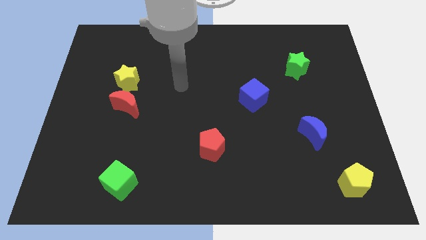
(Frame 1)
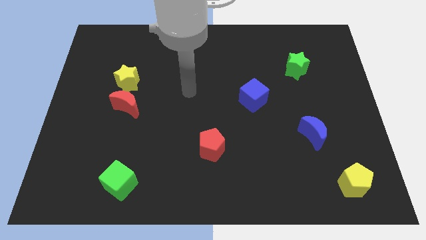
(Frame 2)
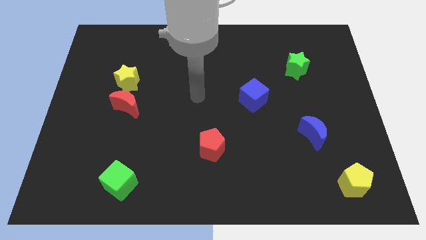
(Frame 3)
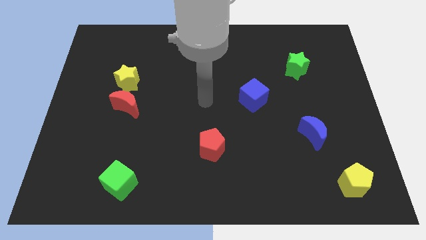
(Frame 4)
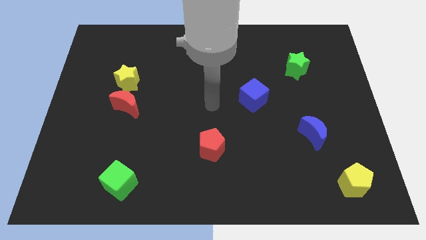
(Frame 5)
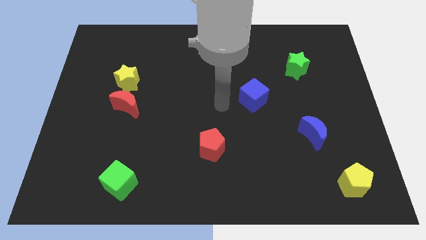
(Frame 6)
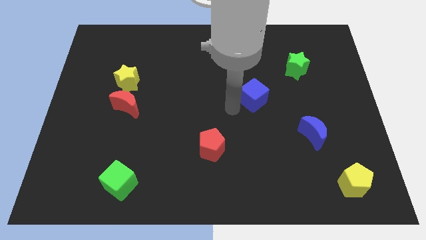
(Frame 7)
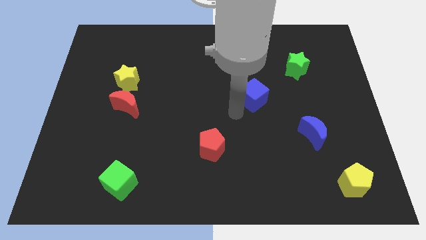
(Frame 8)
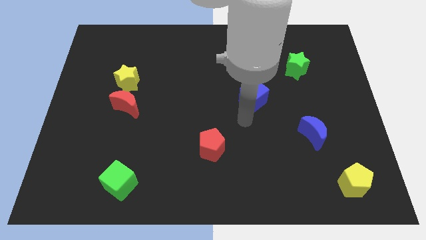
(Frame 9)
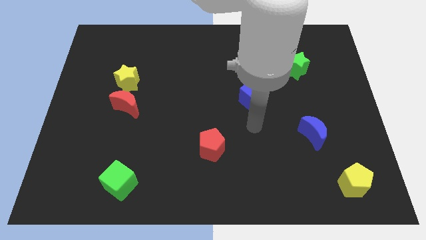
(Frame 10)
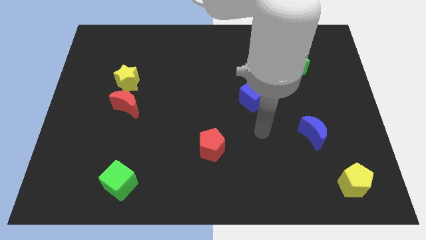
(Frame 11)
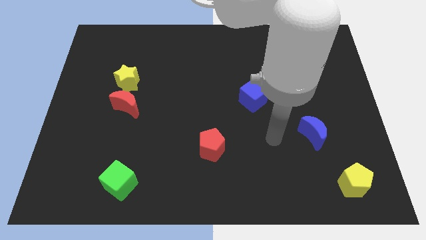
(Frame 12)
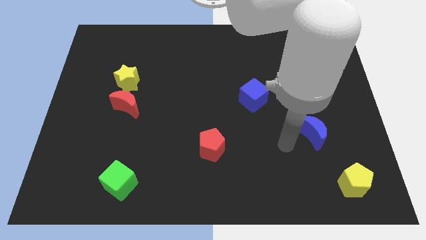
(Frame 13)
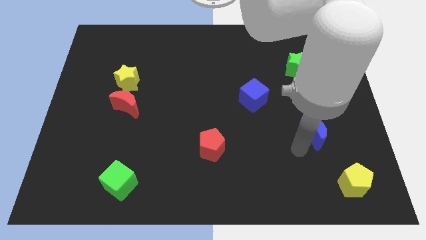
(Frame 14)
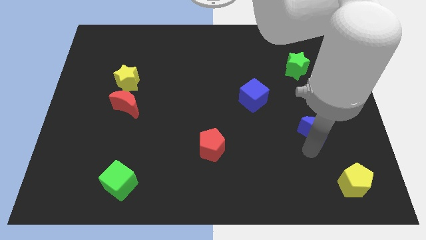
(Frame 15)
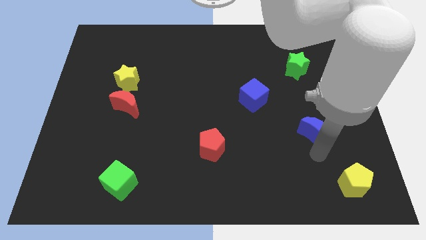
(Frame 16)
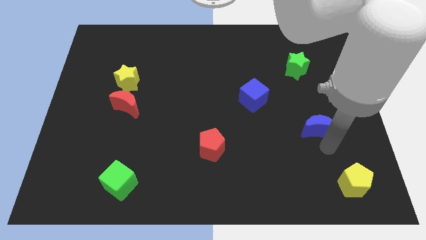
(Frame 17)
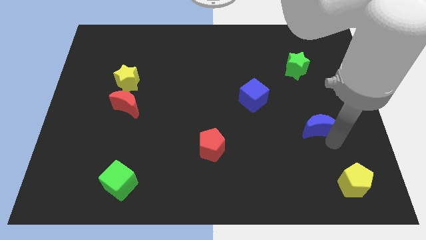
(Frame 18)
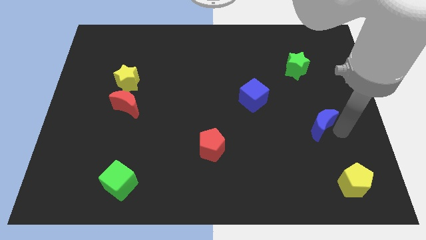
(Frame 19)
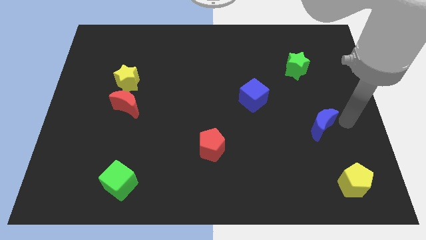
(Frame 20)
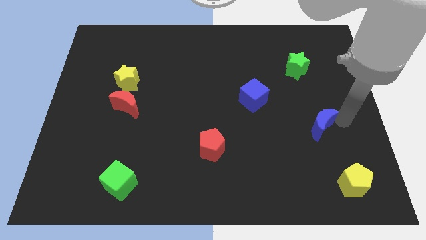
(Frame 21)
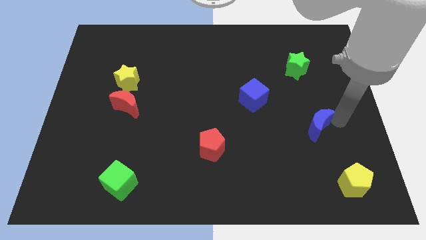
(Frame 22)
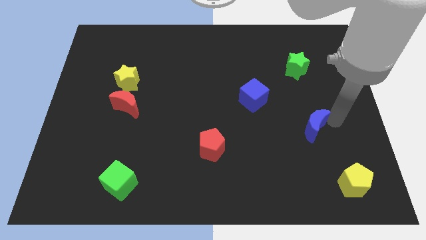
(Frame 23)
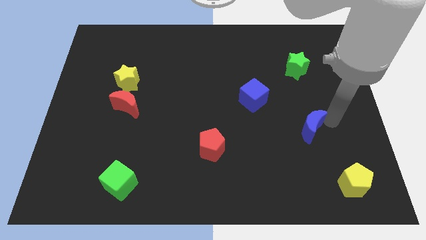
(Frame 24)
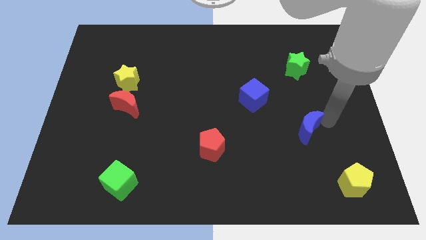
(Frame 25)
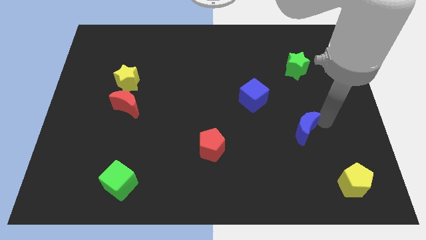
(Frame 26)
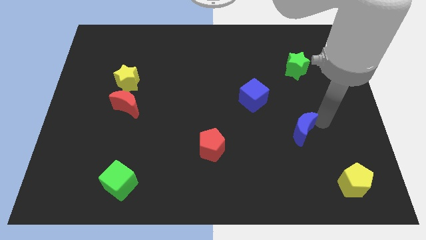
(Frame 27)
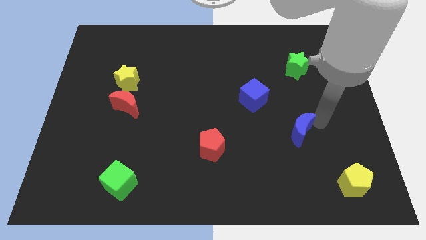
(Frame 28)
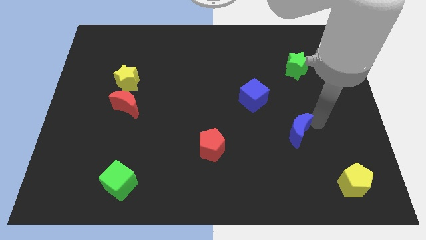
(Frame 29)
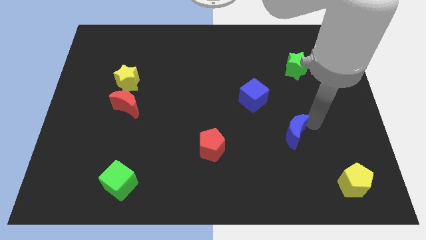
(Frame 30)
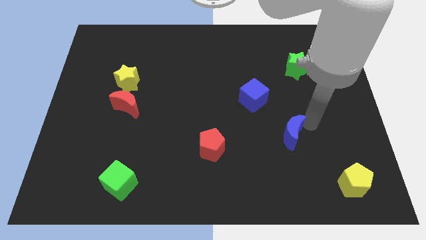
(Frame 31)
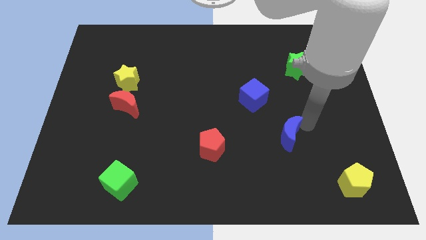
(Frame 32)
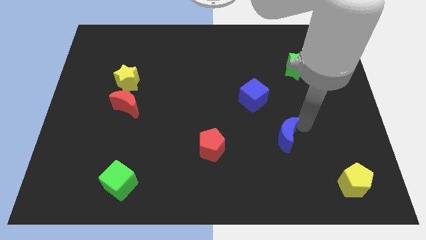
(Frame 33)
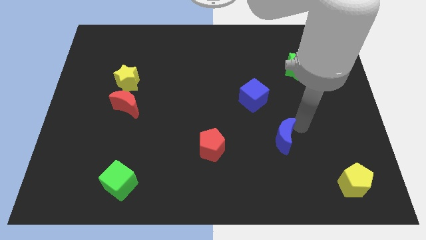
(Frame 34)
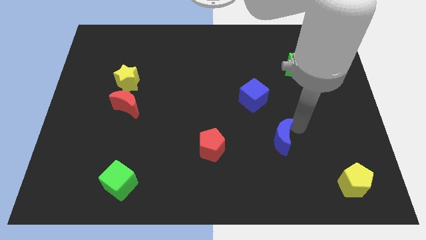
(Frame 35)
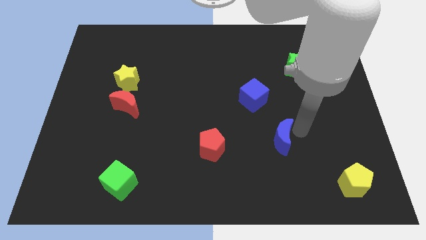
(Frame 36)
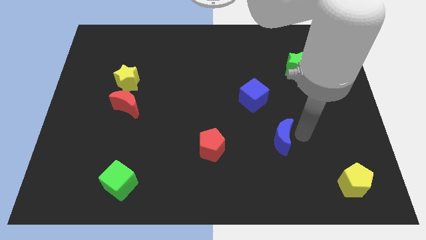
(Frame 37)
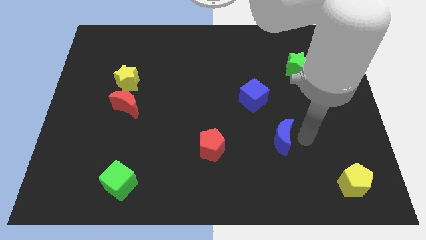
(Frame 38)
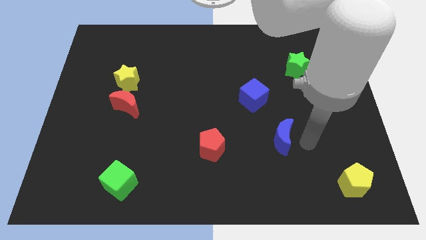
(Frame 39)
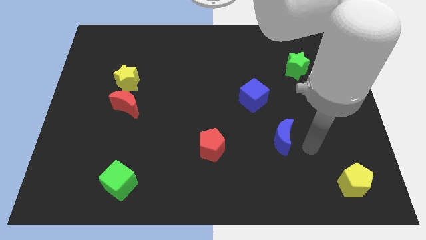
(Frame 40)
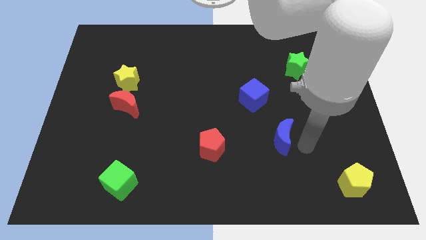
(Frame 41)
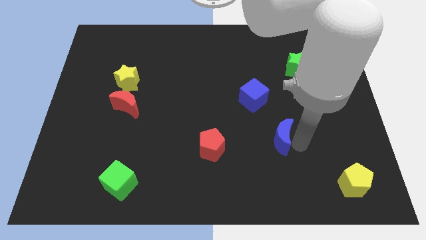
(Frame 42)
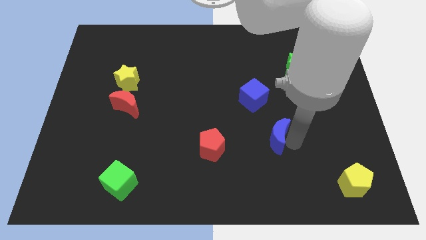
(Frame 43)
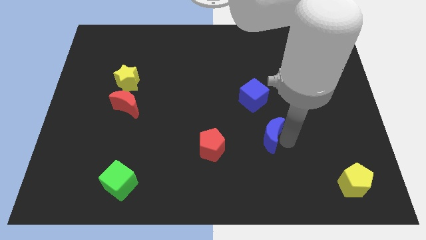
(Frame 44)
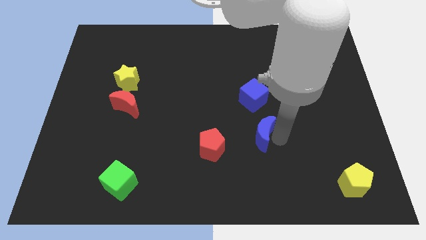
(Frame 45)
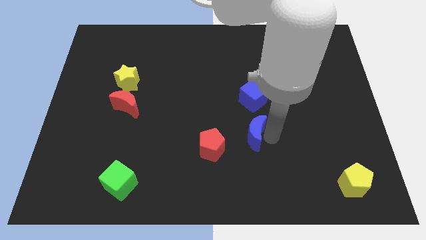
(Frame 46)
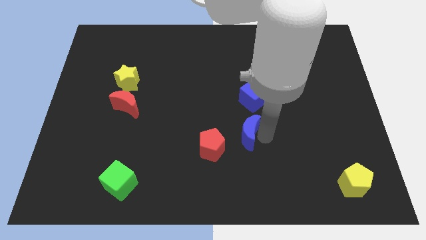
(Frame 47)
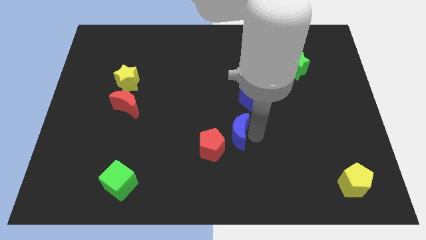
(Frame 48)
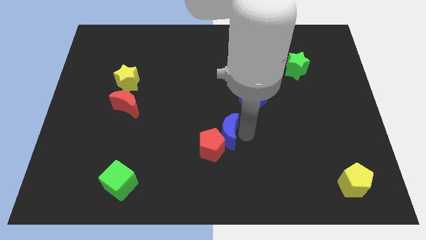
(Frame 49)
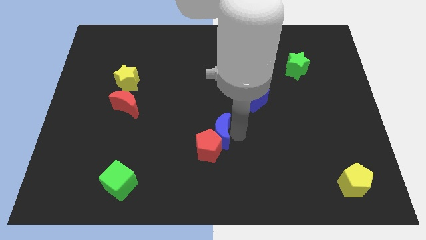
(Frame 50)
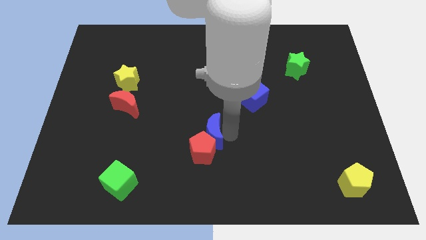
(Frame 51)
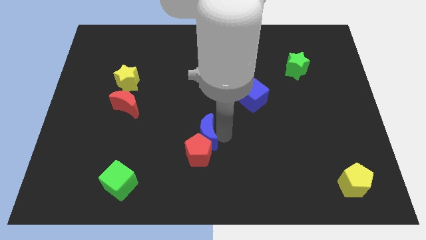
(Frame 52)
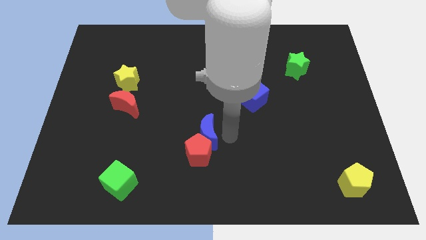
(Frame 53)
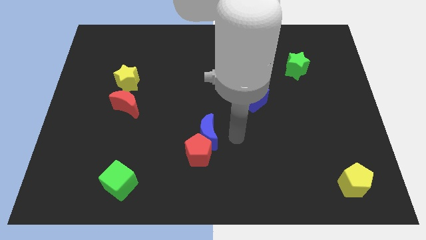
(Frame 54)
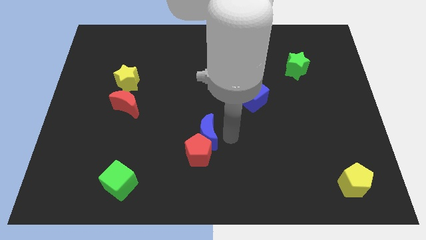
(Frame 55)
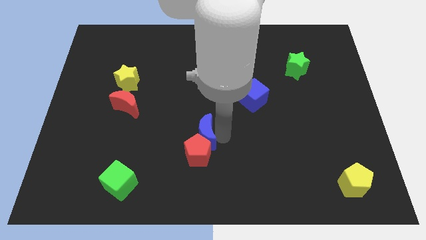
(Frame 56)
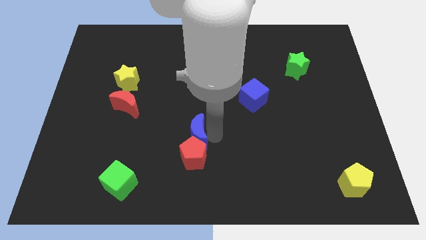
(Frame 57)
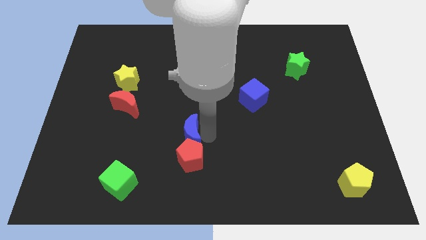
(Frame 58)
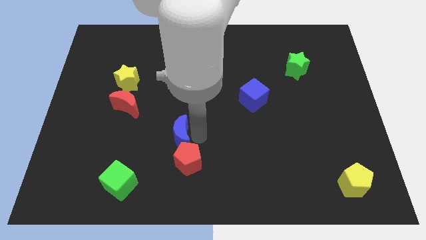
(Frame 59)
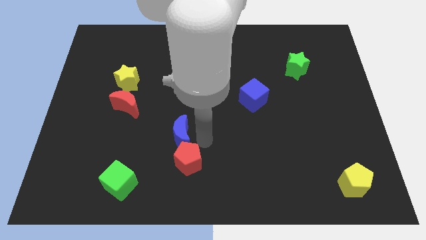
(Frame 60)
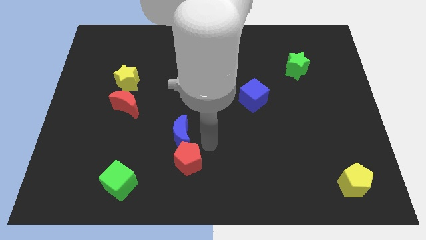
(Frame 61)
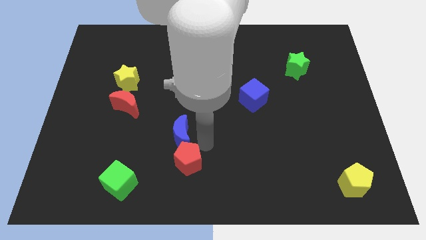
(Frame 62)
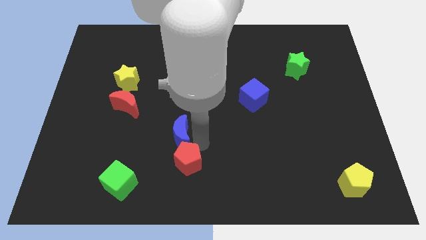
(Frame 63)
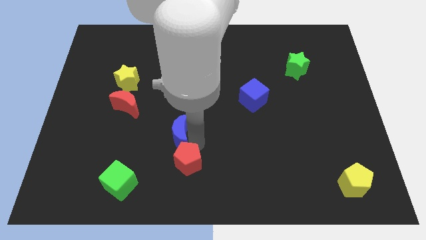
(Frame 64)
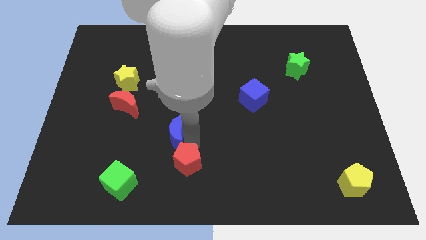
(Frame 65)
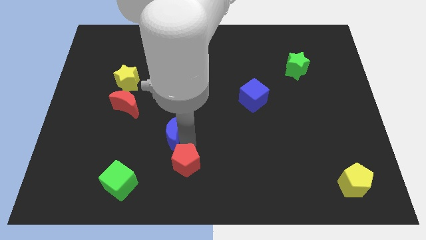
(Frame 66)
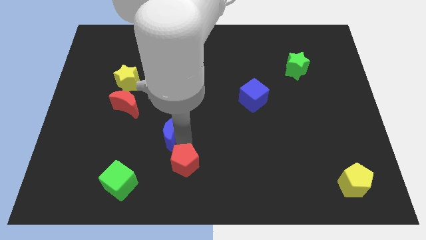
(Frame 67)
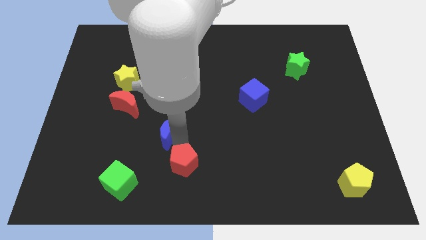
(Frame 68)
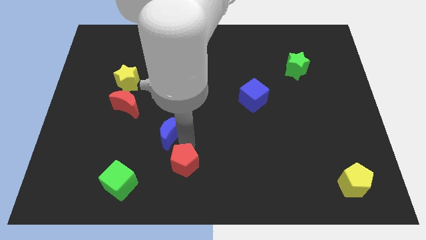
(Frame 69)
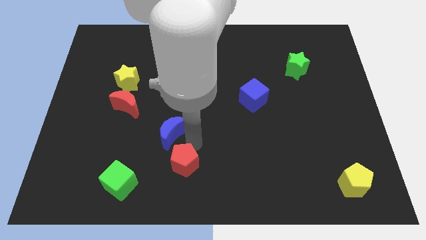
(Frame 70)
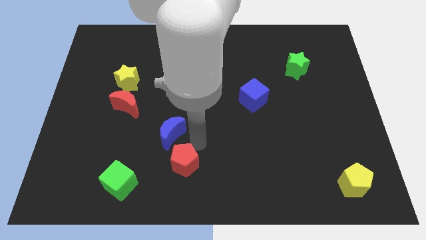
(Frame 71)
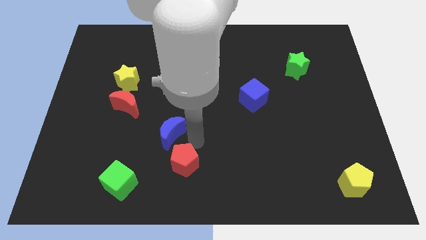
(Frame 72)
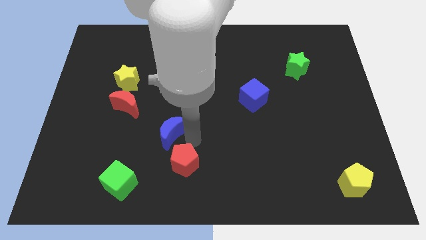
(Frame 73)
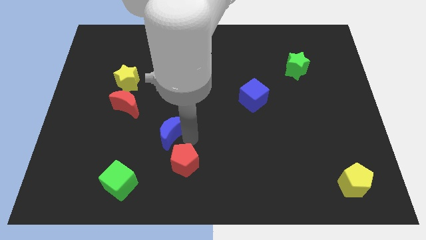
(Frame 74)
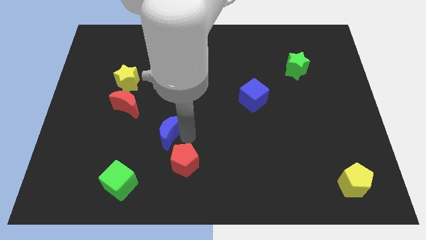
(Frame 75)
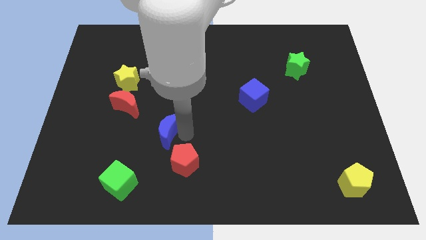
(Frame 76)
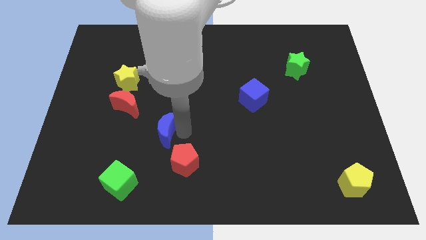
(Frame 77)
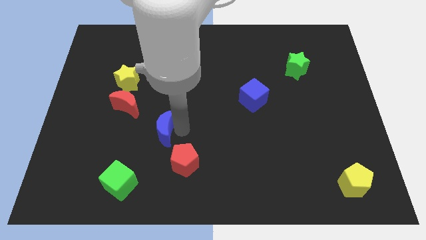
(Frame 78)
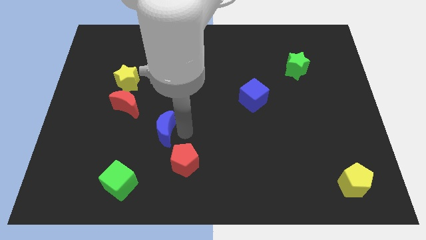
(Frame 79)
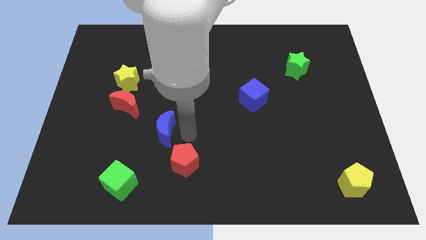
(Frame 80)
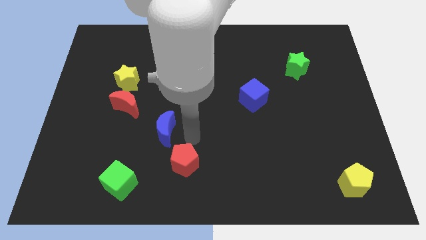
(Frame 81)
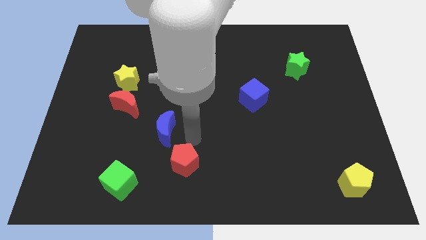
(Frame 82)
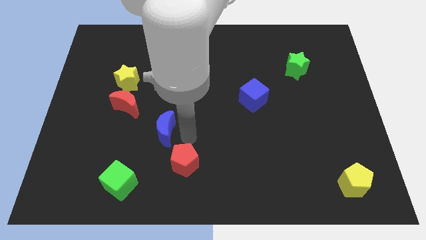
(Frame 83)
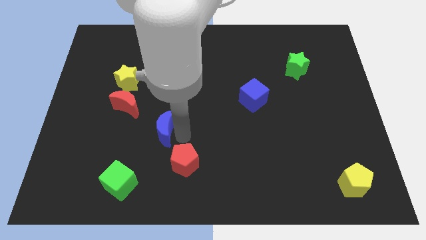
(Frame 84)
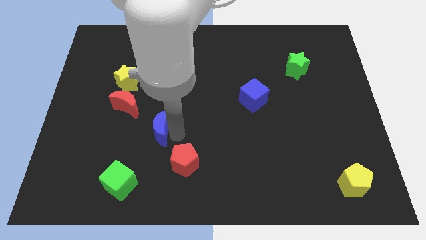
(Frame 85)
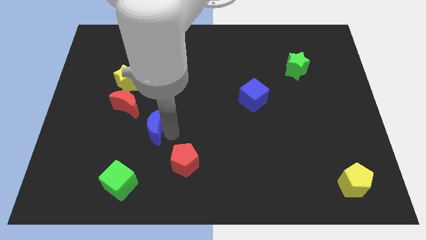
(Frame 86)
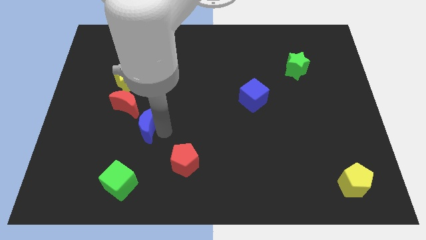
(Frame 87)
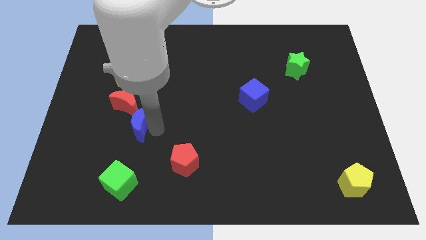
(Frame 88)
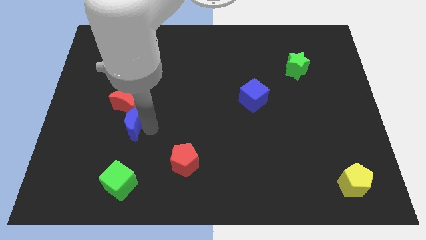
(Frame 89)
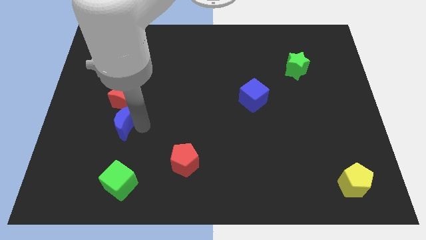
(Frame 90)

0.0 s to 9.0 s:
slide the blue moon diagonally down and to the left of the red moon
